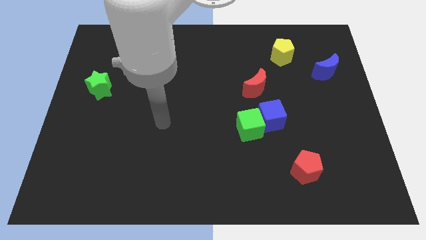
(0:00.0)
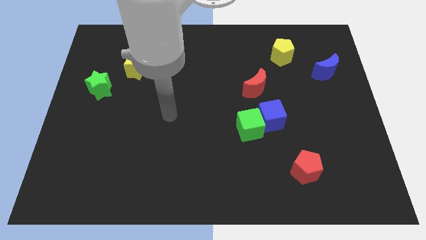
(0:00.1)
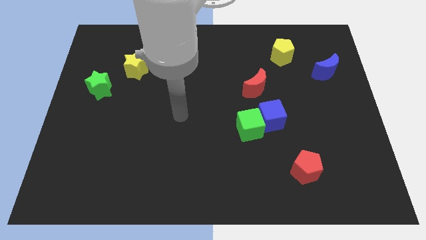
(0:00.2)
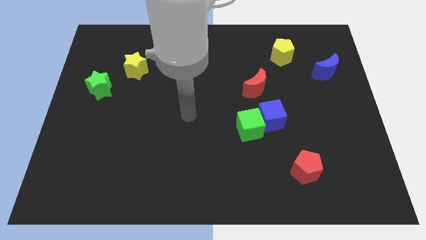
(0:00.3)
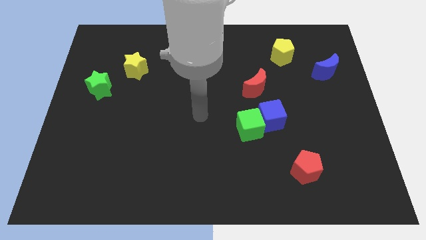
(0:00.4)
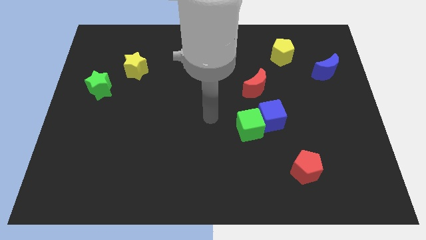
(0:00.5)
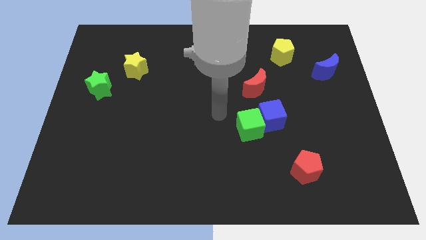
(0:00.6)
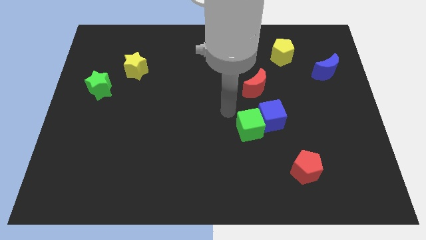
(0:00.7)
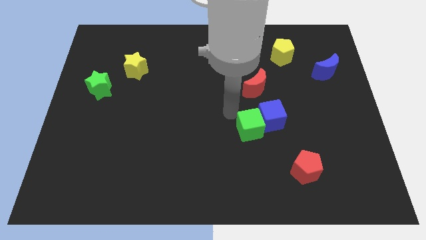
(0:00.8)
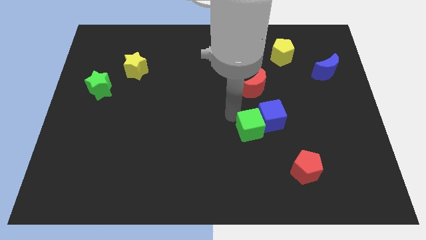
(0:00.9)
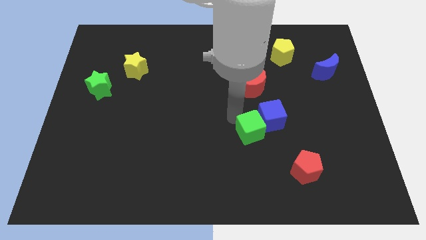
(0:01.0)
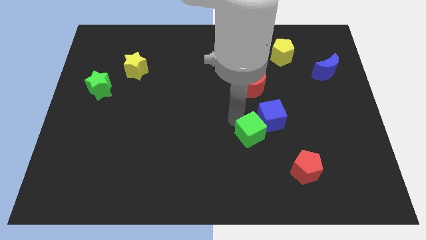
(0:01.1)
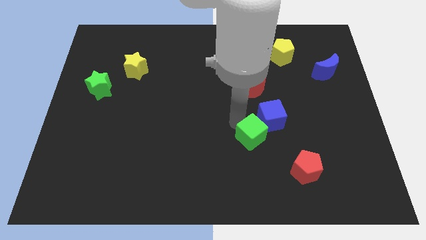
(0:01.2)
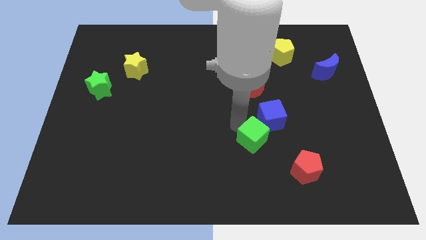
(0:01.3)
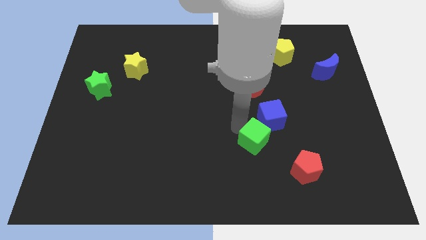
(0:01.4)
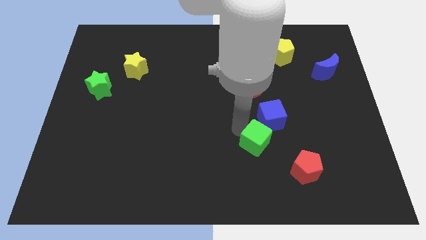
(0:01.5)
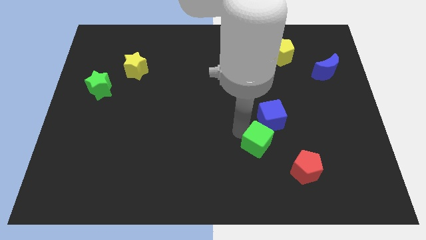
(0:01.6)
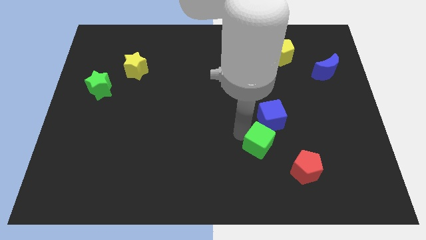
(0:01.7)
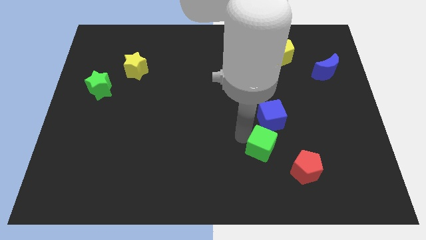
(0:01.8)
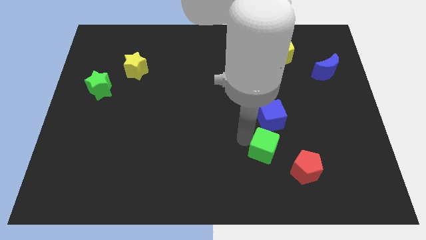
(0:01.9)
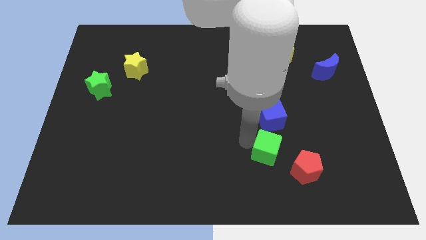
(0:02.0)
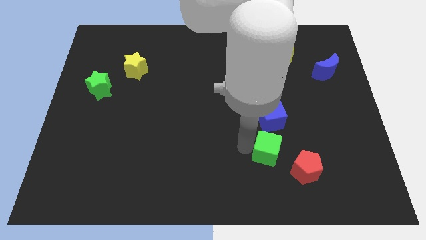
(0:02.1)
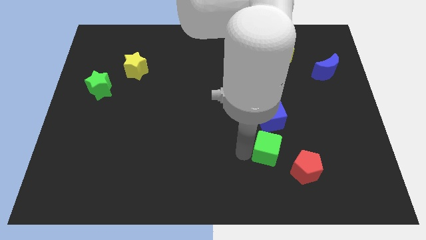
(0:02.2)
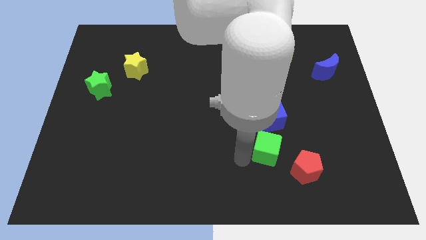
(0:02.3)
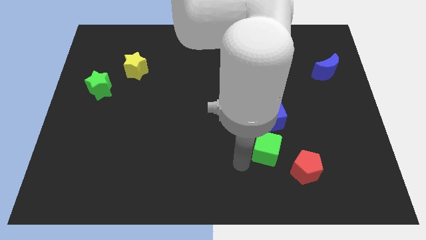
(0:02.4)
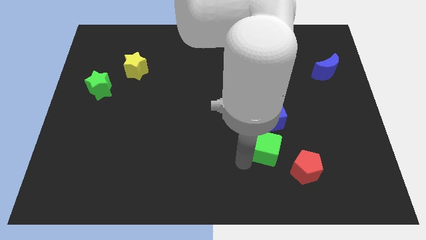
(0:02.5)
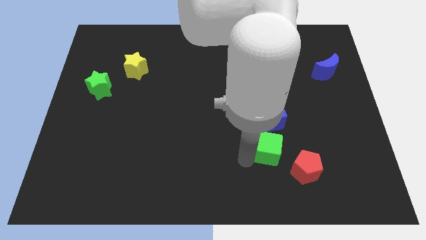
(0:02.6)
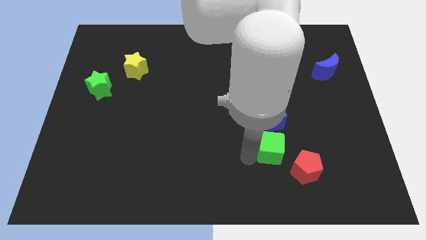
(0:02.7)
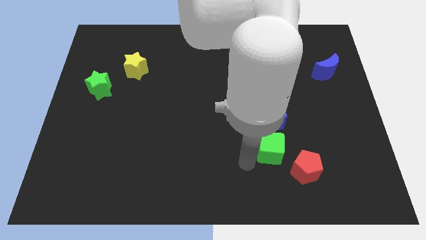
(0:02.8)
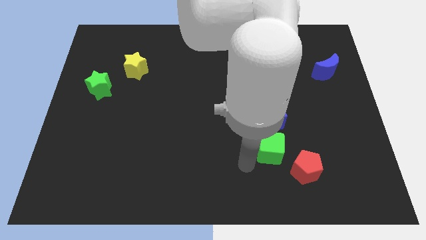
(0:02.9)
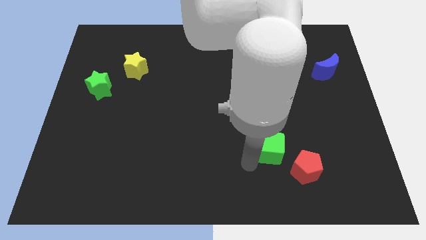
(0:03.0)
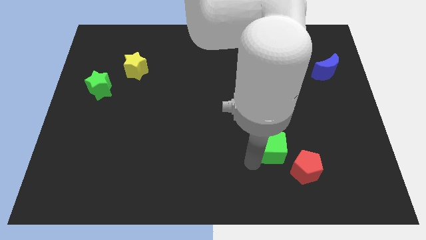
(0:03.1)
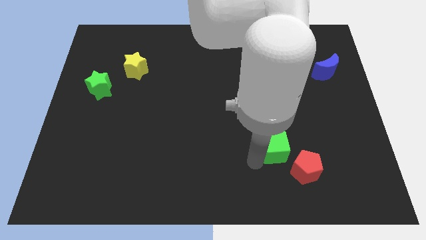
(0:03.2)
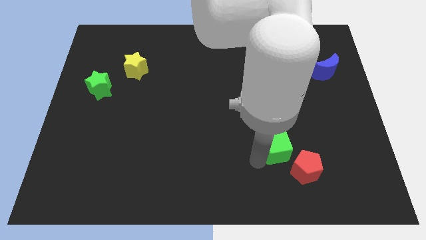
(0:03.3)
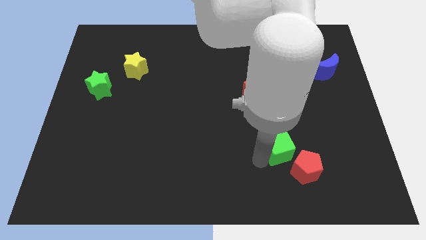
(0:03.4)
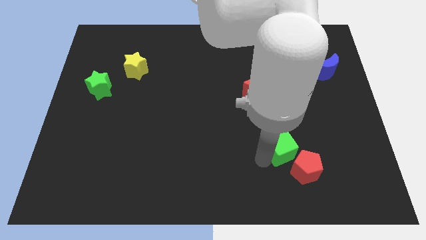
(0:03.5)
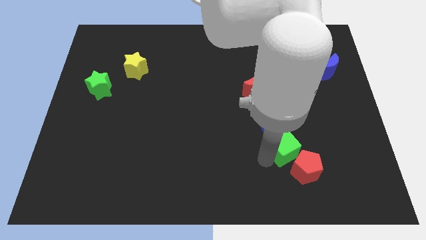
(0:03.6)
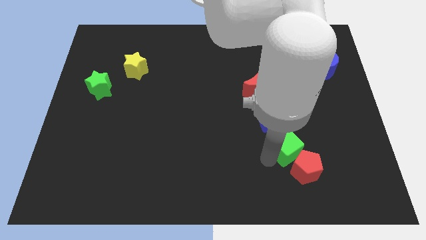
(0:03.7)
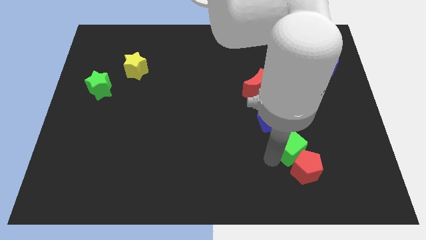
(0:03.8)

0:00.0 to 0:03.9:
slightly slide the green cube right

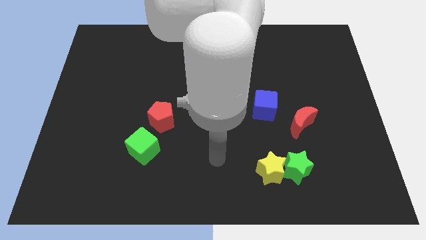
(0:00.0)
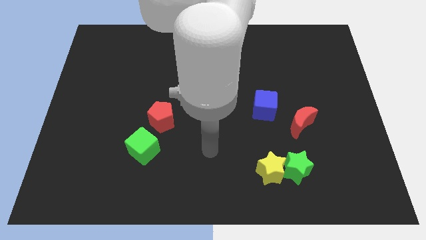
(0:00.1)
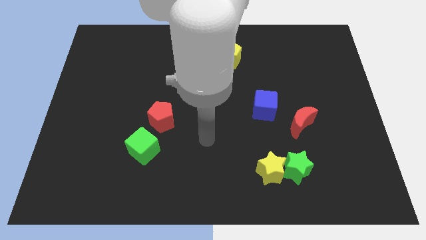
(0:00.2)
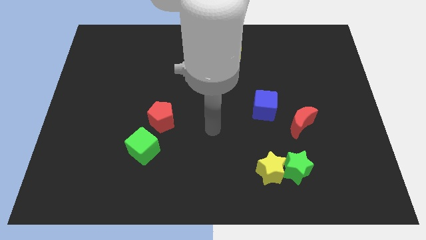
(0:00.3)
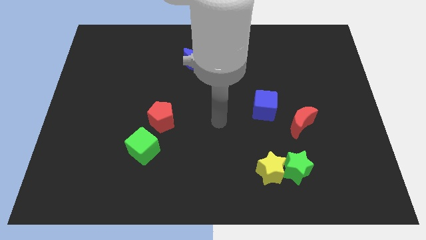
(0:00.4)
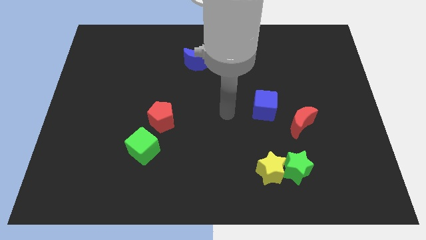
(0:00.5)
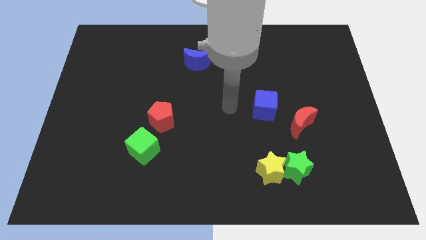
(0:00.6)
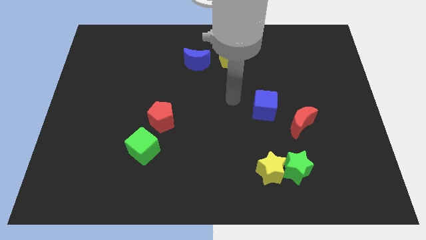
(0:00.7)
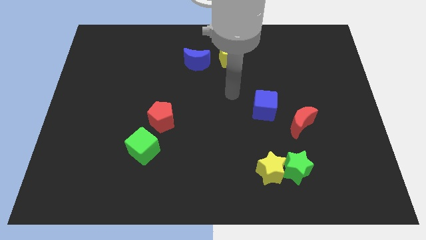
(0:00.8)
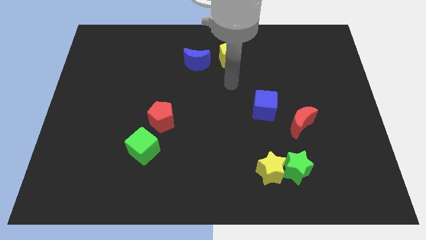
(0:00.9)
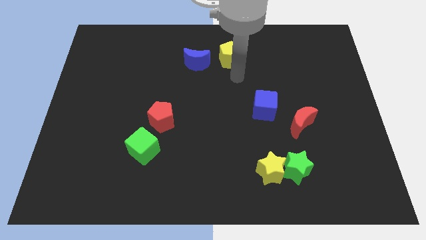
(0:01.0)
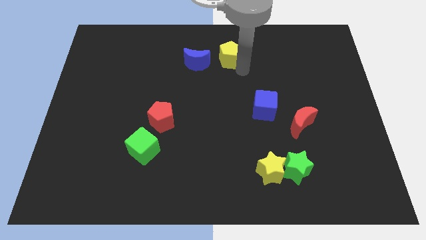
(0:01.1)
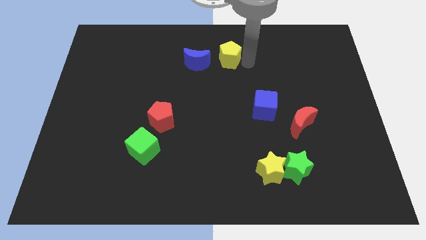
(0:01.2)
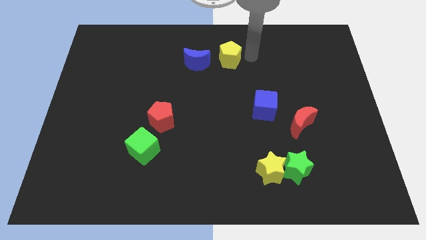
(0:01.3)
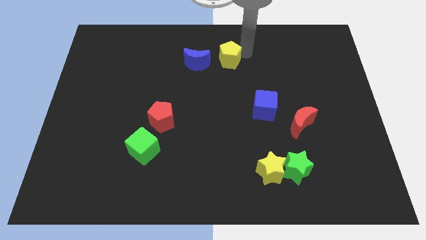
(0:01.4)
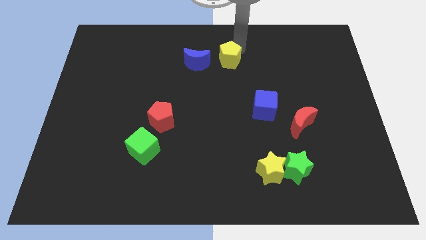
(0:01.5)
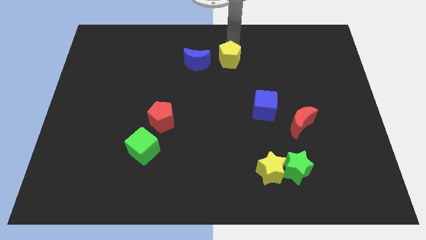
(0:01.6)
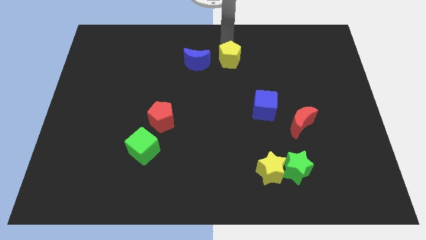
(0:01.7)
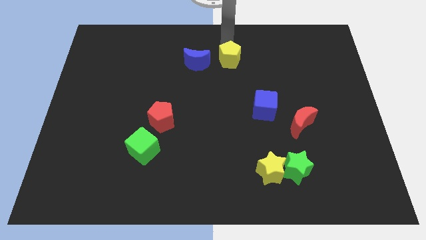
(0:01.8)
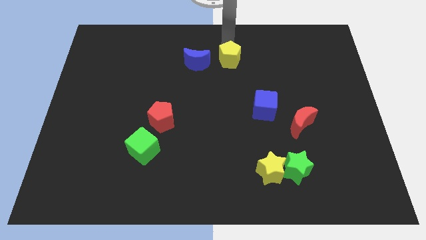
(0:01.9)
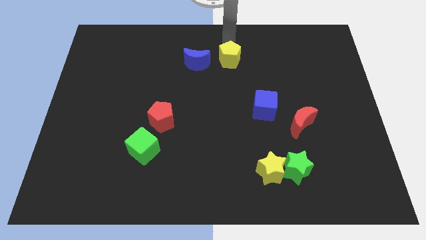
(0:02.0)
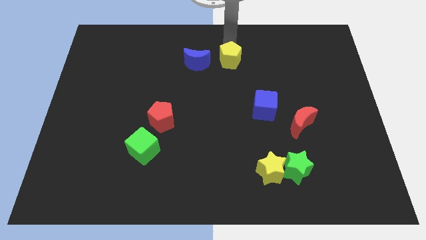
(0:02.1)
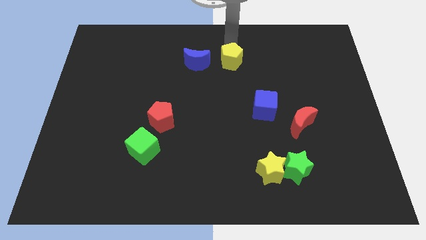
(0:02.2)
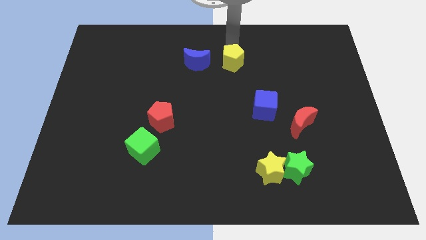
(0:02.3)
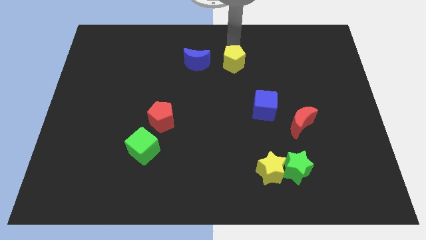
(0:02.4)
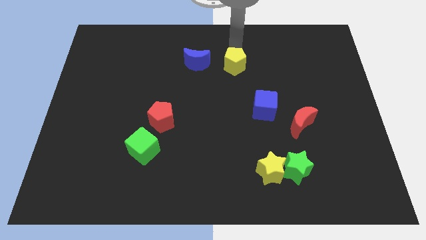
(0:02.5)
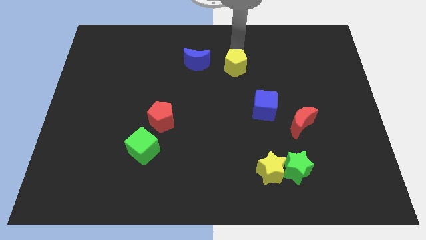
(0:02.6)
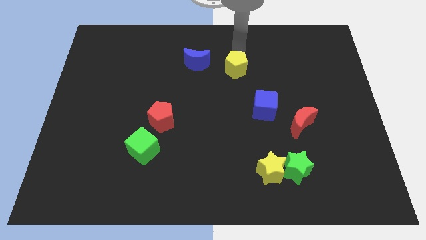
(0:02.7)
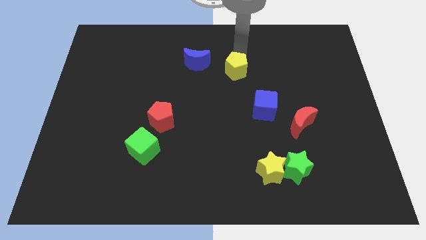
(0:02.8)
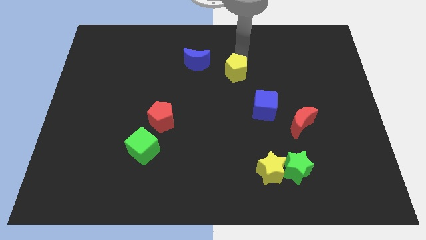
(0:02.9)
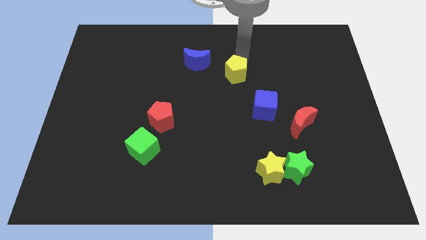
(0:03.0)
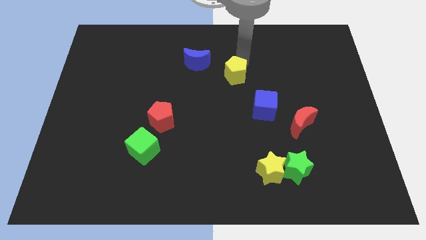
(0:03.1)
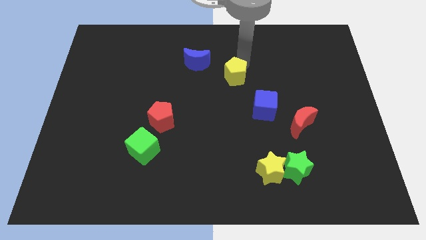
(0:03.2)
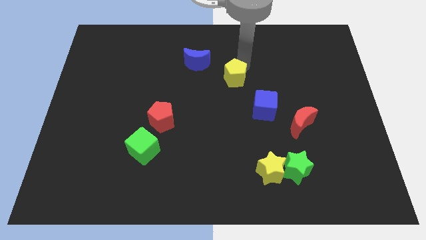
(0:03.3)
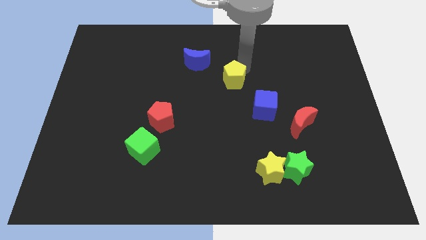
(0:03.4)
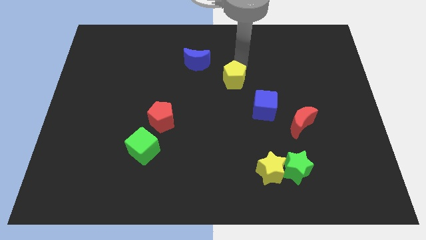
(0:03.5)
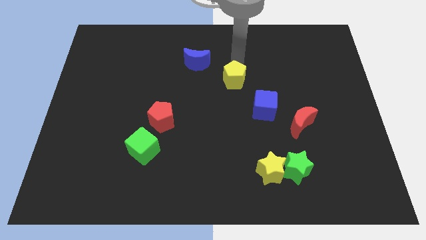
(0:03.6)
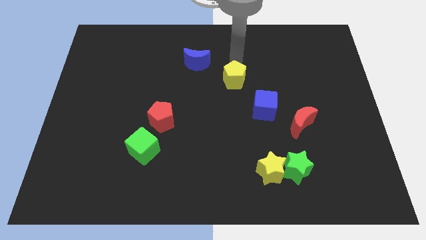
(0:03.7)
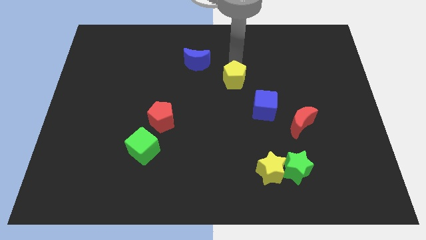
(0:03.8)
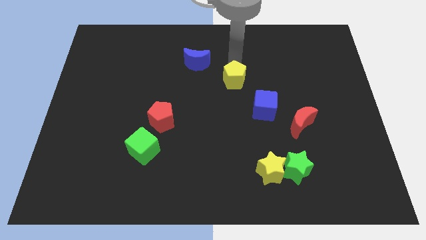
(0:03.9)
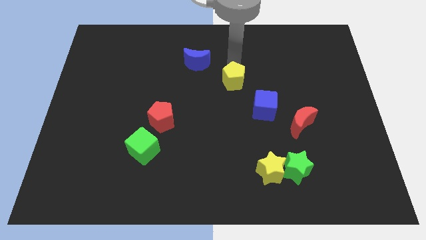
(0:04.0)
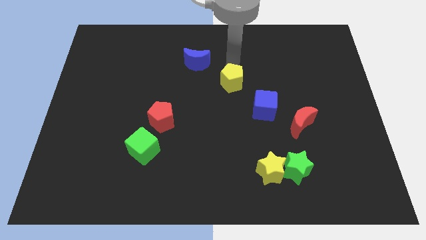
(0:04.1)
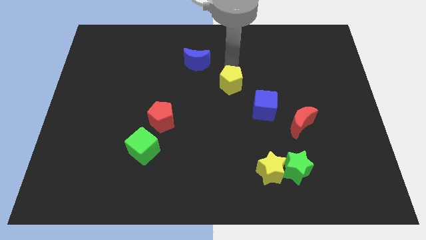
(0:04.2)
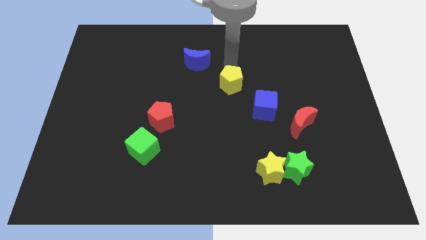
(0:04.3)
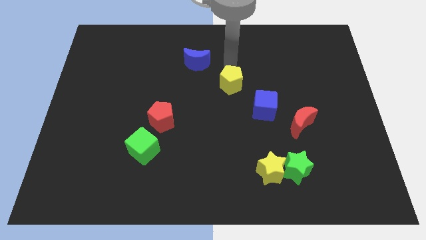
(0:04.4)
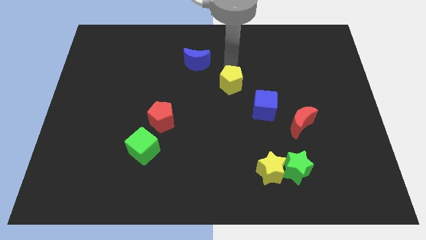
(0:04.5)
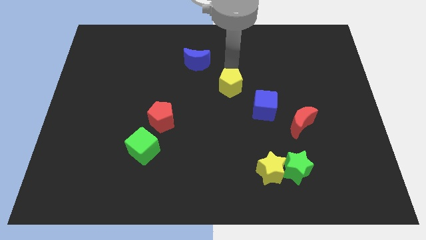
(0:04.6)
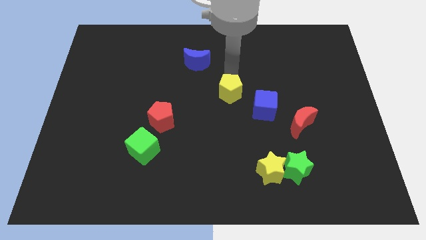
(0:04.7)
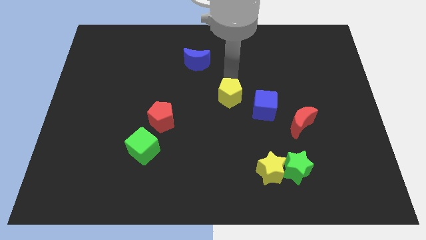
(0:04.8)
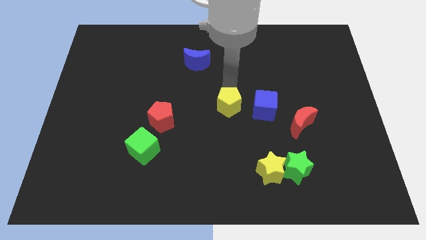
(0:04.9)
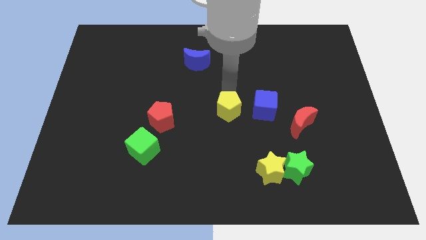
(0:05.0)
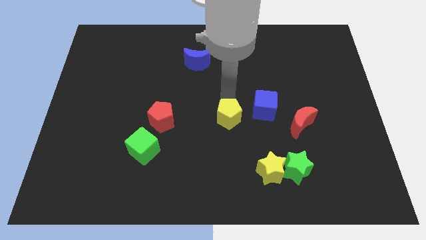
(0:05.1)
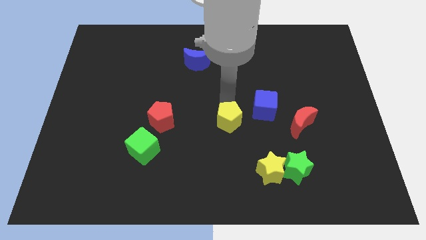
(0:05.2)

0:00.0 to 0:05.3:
push the yellow pentagon downwards
